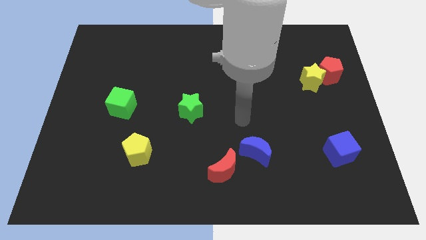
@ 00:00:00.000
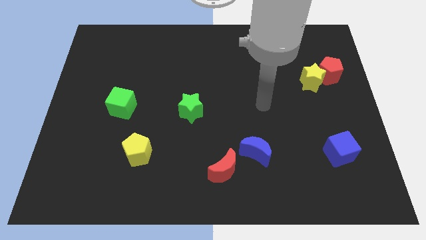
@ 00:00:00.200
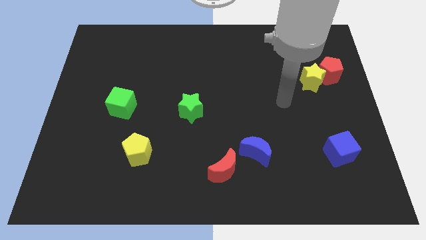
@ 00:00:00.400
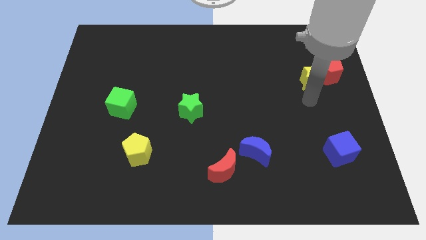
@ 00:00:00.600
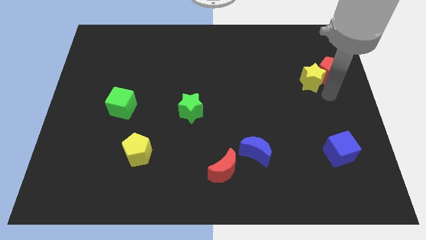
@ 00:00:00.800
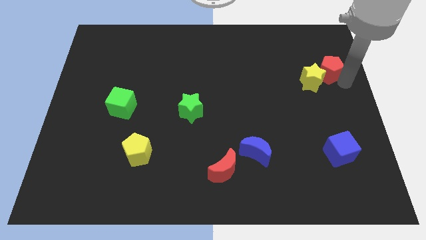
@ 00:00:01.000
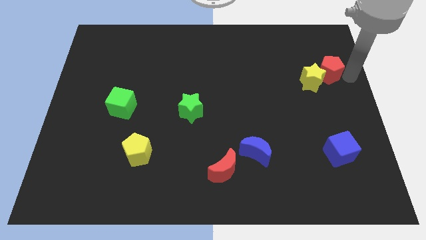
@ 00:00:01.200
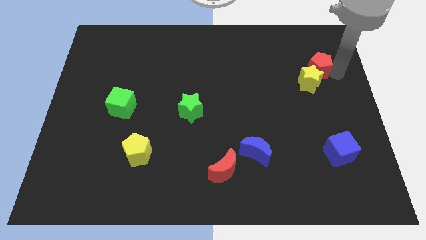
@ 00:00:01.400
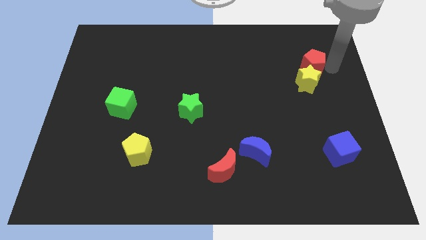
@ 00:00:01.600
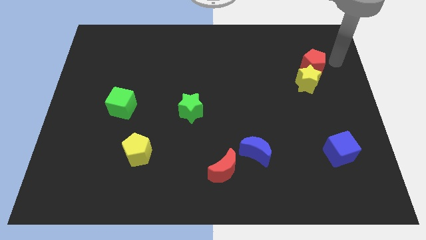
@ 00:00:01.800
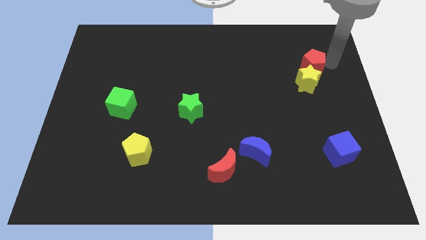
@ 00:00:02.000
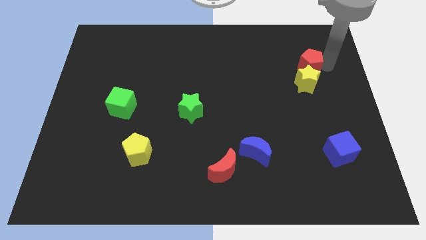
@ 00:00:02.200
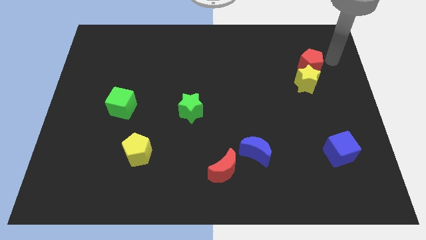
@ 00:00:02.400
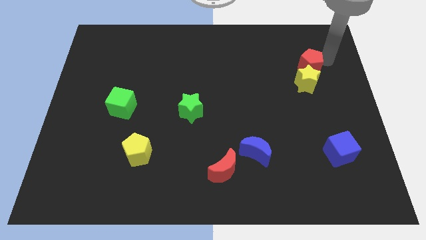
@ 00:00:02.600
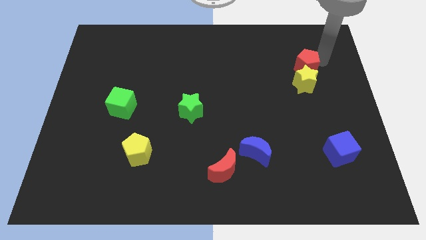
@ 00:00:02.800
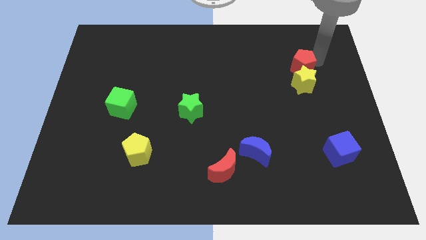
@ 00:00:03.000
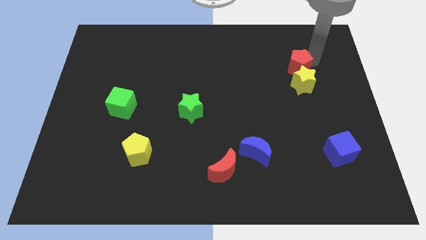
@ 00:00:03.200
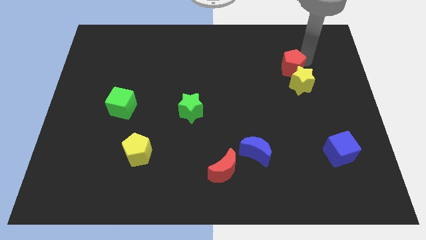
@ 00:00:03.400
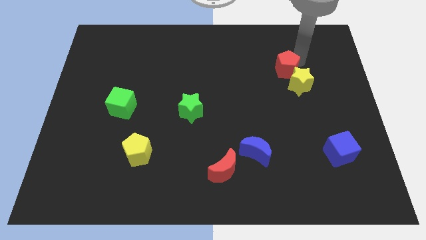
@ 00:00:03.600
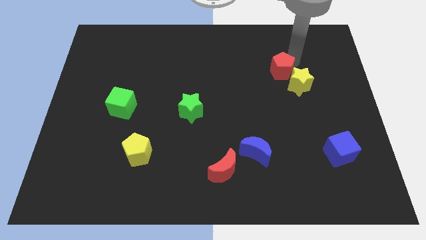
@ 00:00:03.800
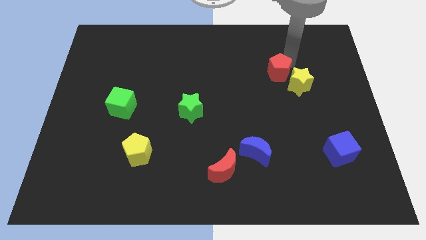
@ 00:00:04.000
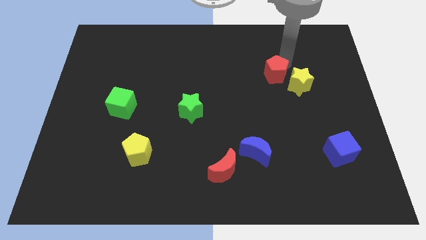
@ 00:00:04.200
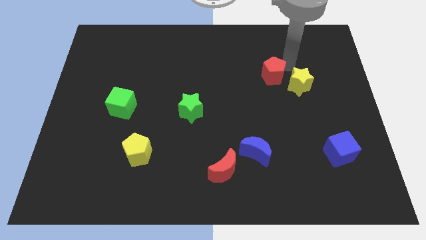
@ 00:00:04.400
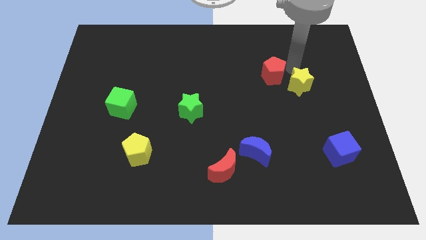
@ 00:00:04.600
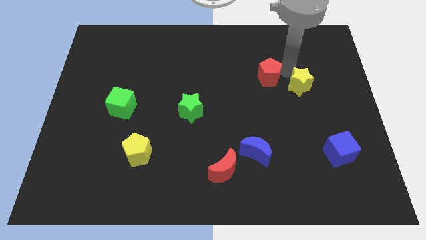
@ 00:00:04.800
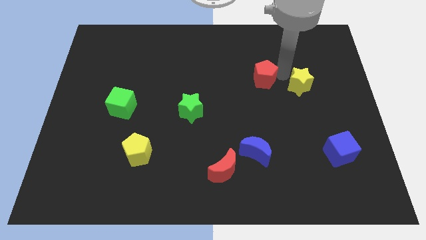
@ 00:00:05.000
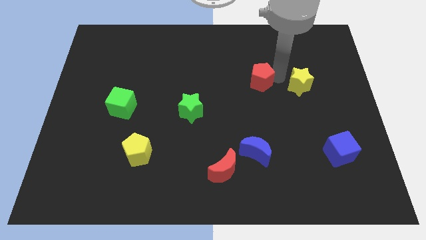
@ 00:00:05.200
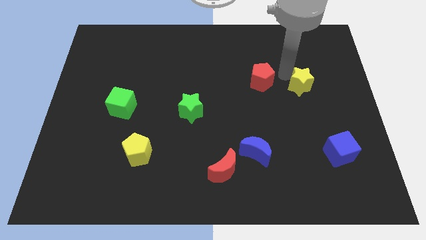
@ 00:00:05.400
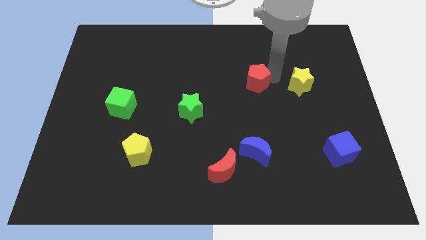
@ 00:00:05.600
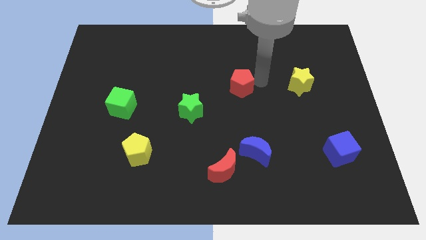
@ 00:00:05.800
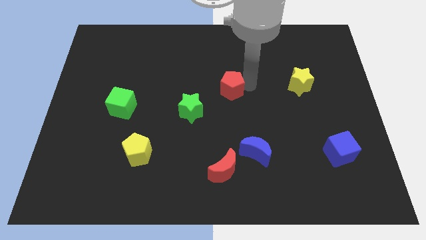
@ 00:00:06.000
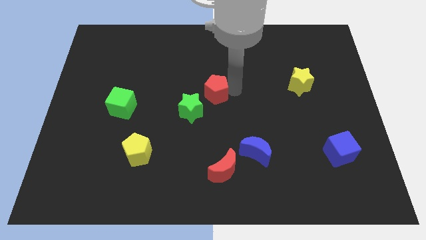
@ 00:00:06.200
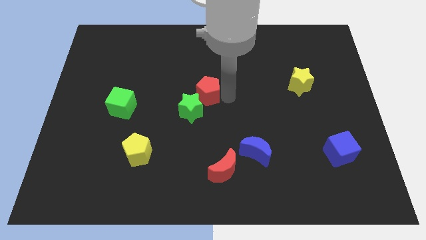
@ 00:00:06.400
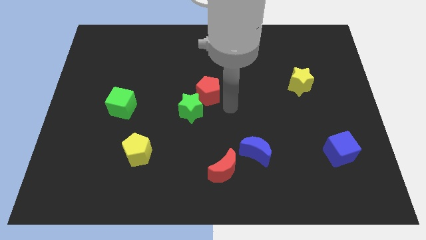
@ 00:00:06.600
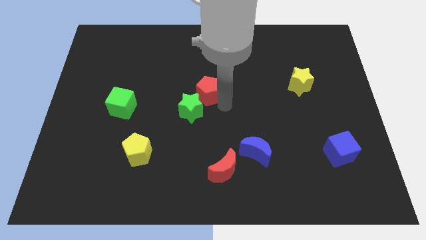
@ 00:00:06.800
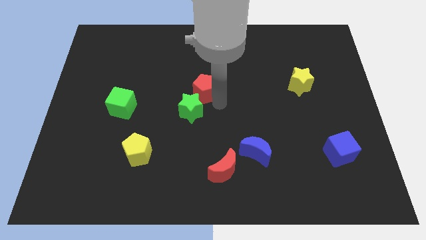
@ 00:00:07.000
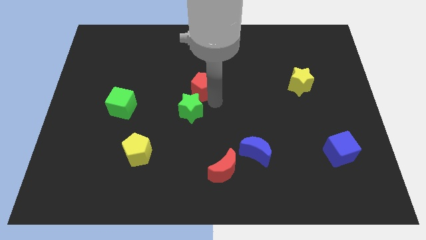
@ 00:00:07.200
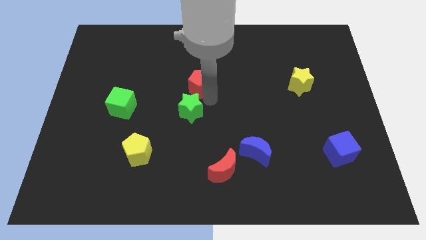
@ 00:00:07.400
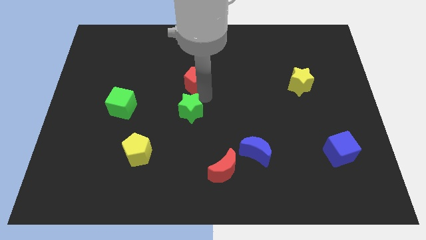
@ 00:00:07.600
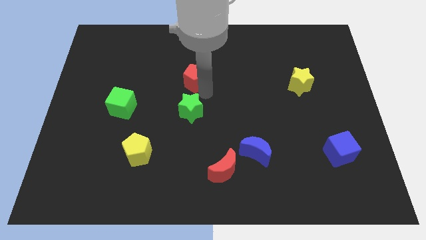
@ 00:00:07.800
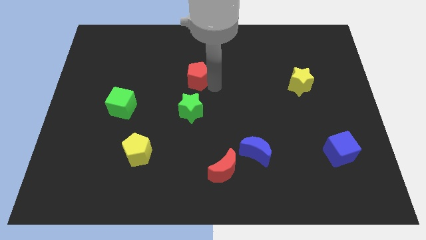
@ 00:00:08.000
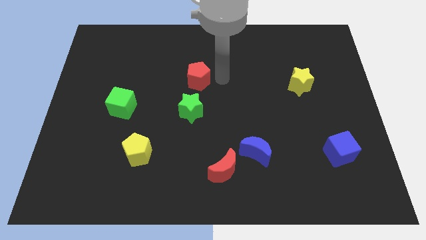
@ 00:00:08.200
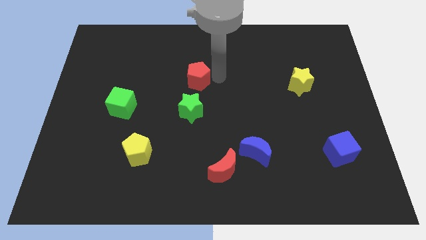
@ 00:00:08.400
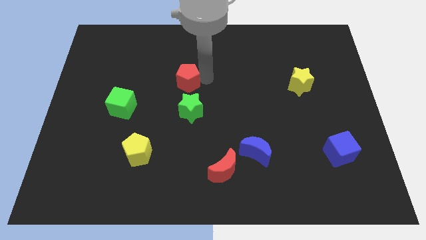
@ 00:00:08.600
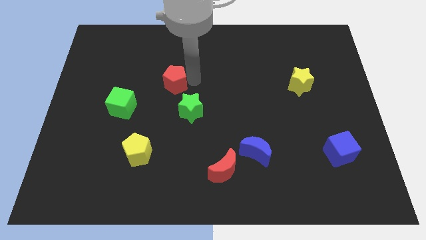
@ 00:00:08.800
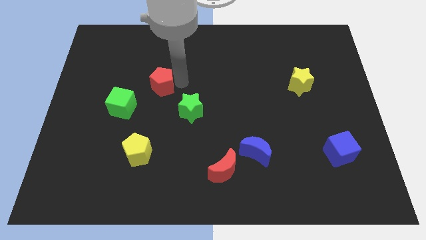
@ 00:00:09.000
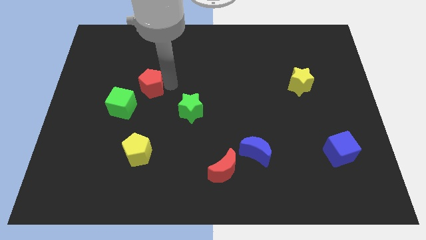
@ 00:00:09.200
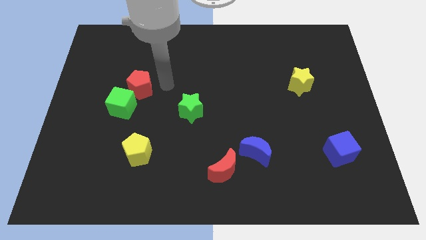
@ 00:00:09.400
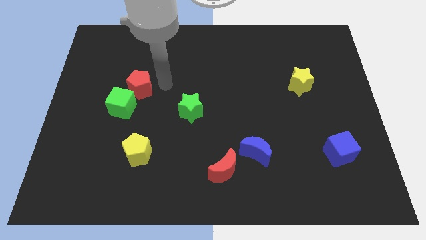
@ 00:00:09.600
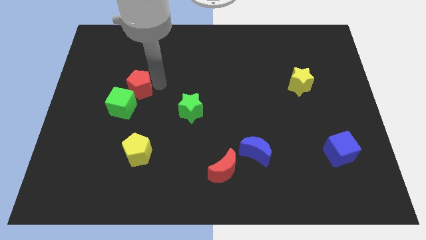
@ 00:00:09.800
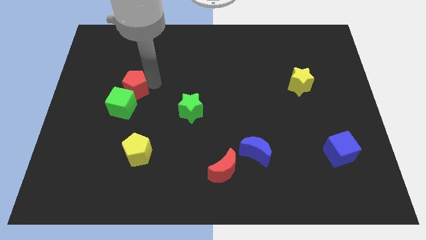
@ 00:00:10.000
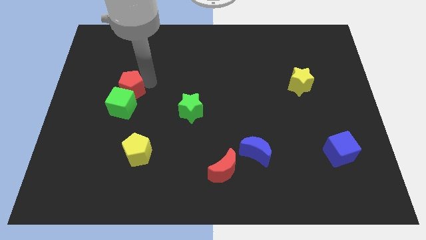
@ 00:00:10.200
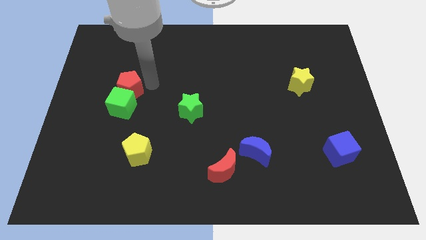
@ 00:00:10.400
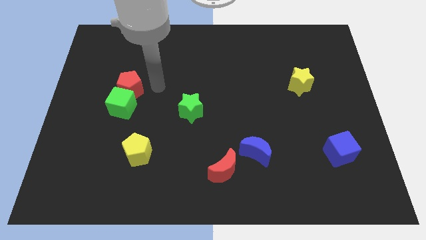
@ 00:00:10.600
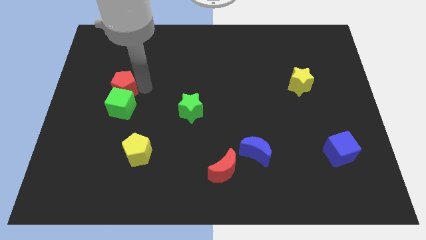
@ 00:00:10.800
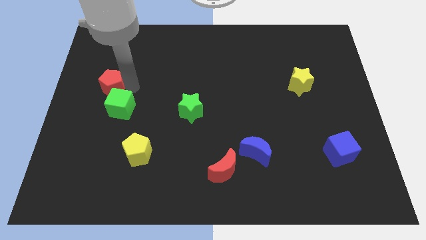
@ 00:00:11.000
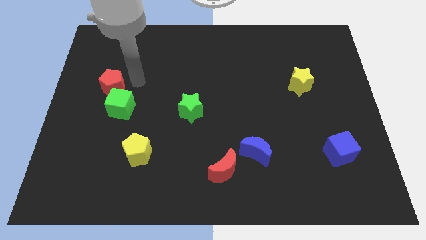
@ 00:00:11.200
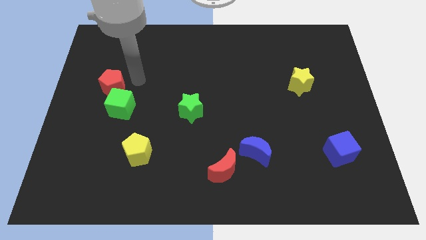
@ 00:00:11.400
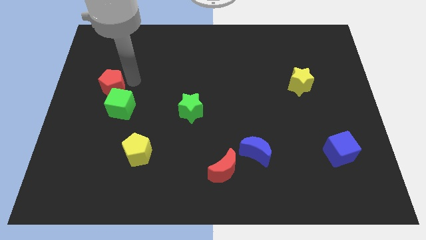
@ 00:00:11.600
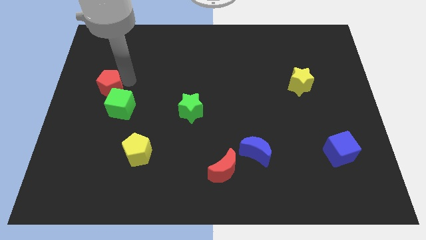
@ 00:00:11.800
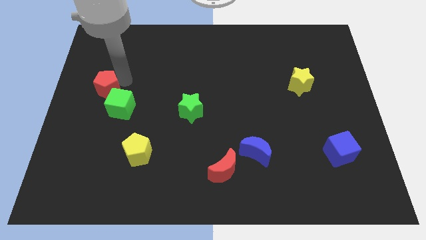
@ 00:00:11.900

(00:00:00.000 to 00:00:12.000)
slide the red pentagon to the left side of the board
